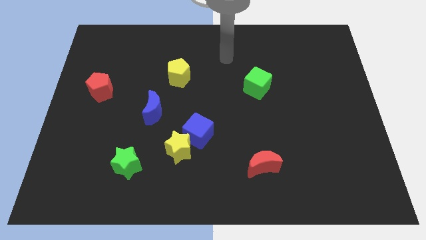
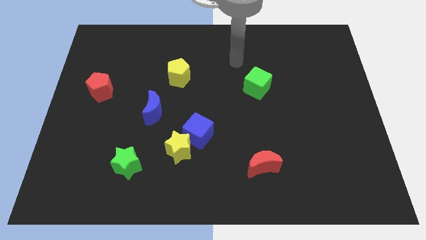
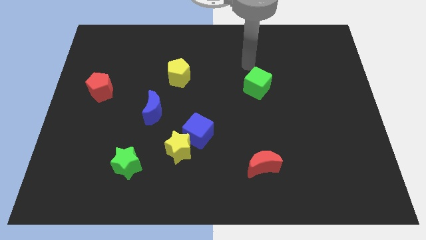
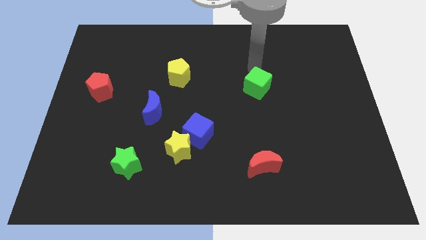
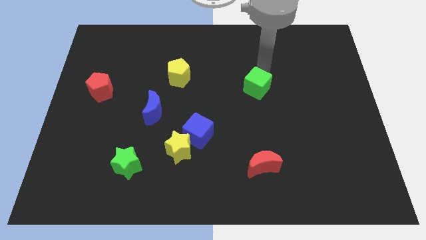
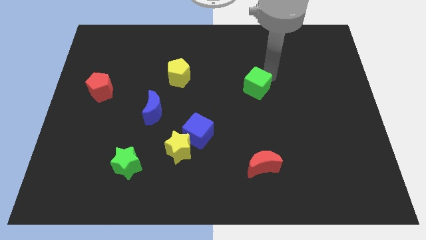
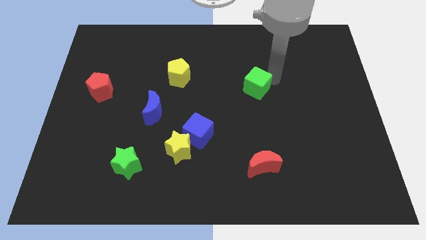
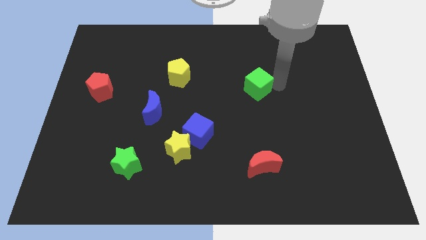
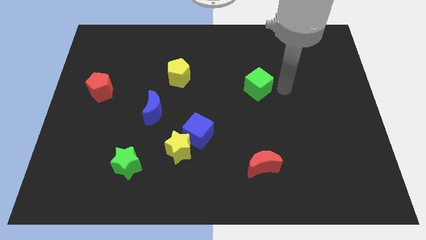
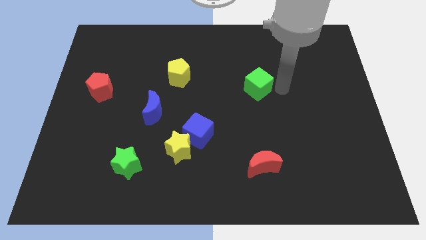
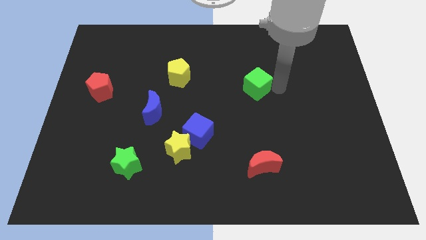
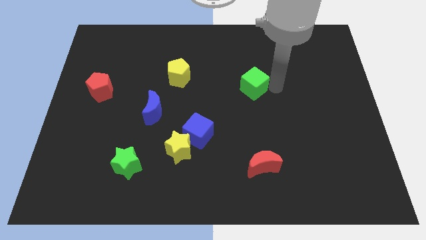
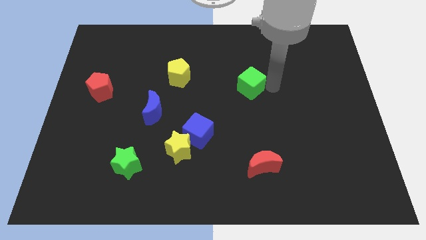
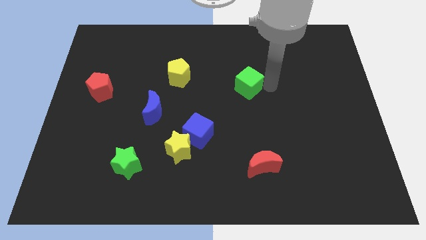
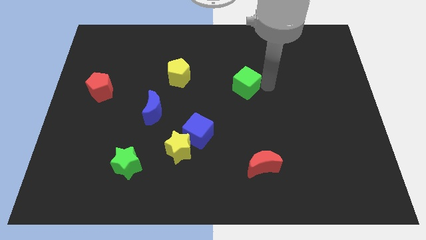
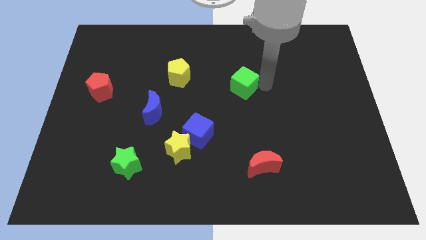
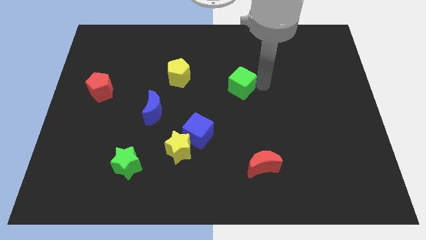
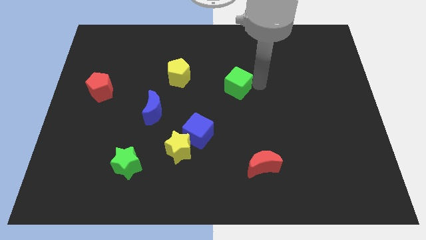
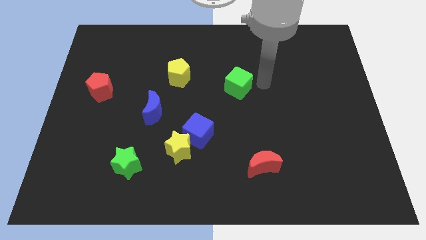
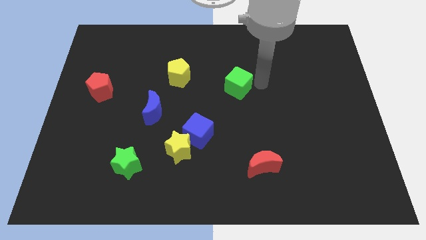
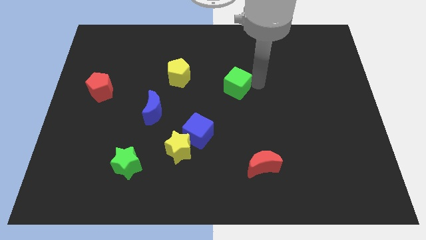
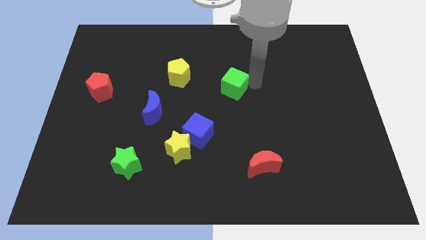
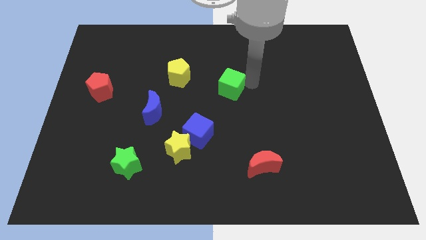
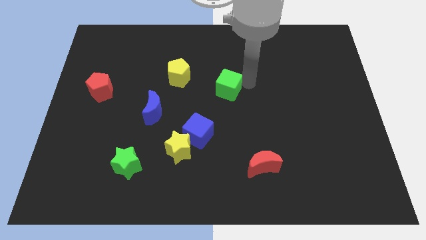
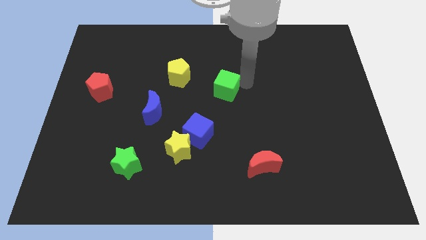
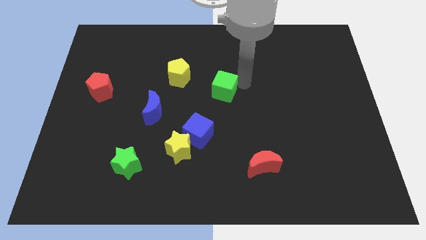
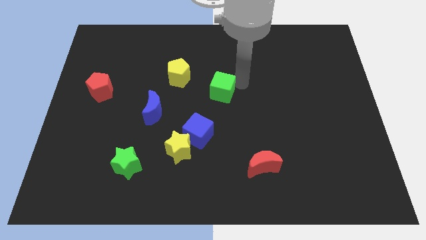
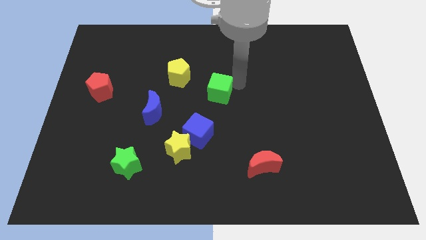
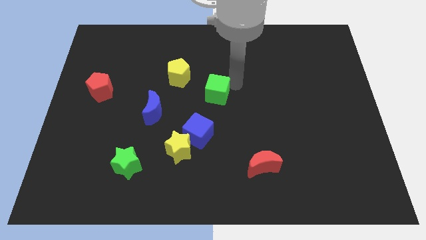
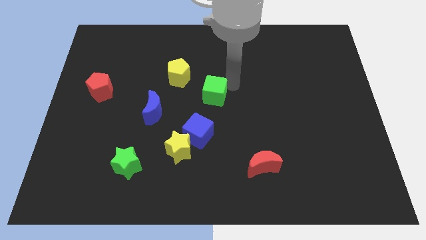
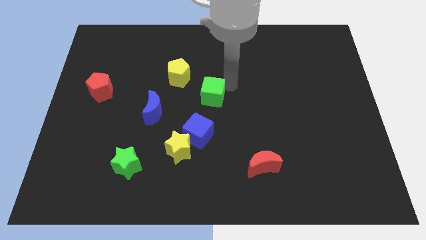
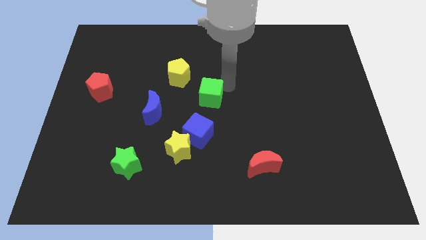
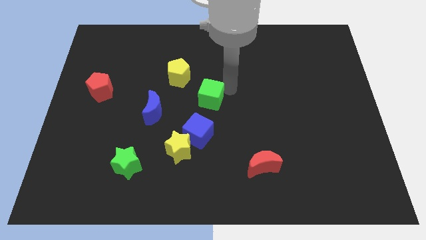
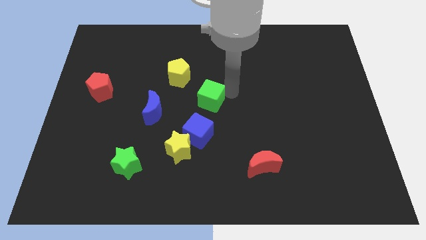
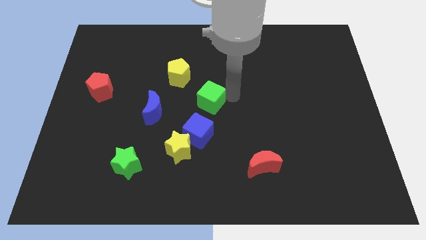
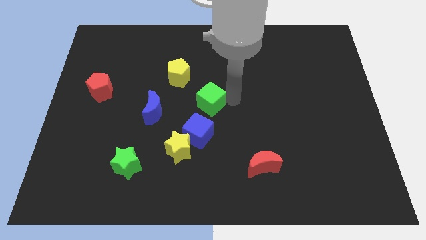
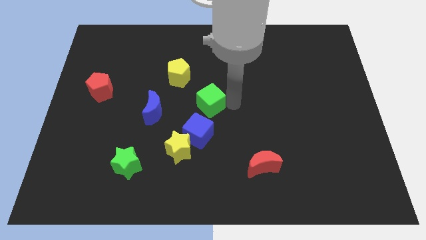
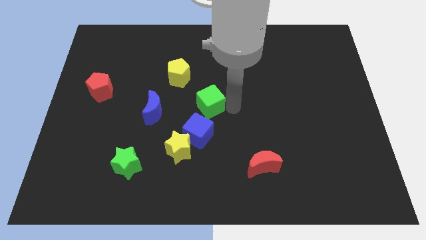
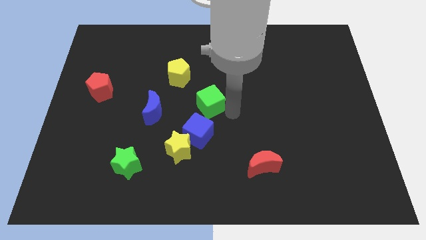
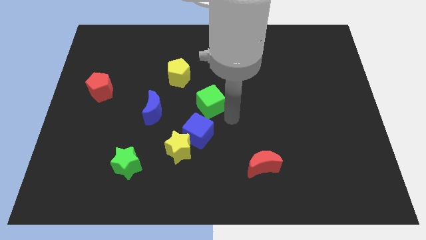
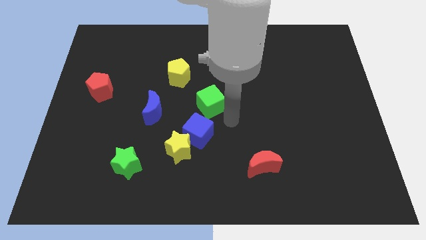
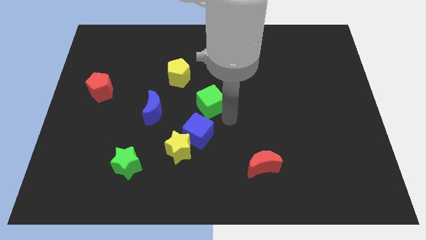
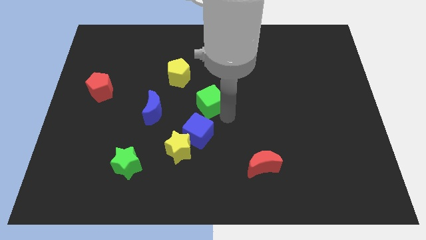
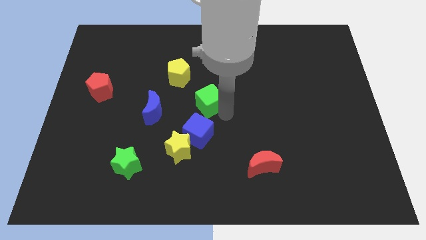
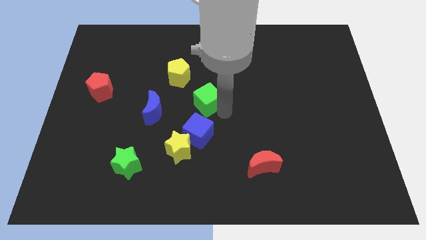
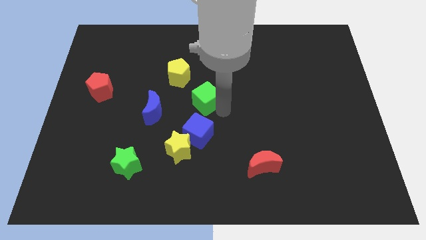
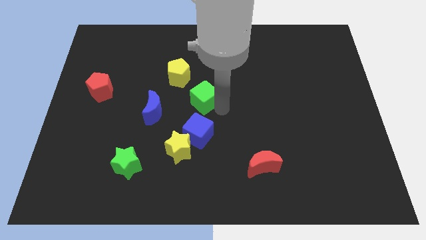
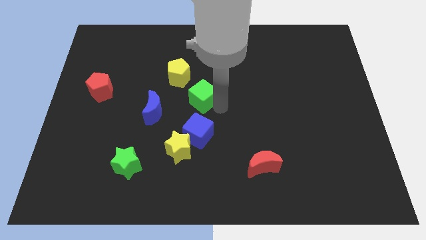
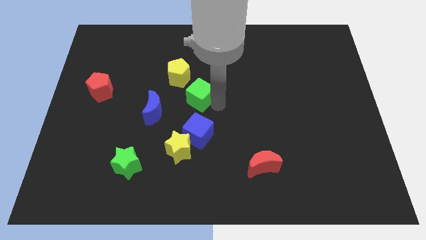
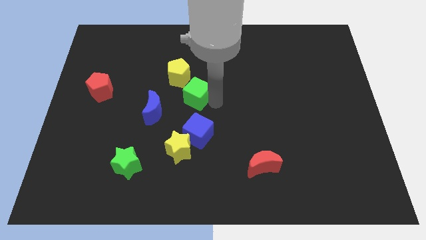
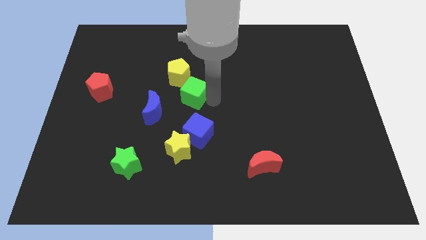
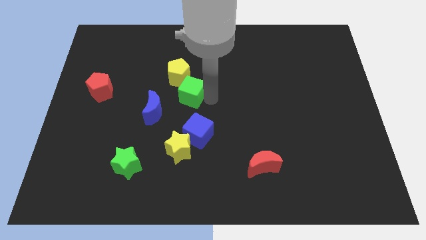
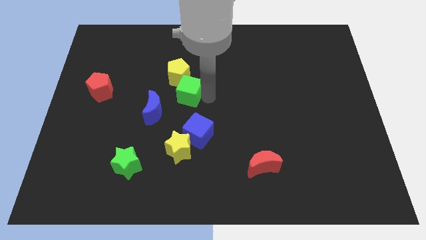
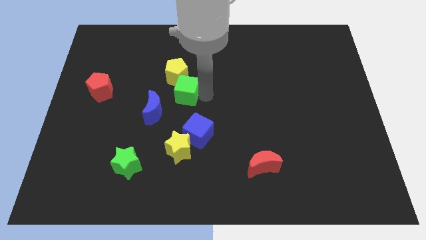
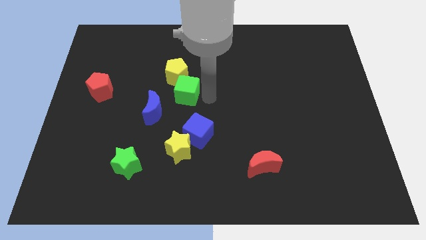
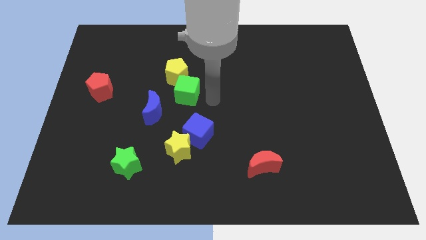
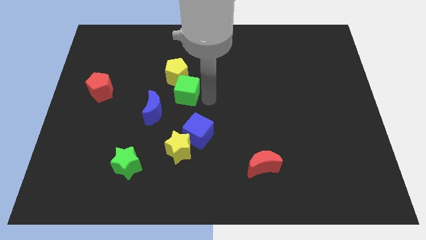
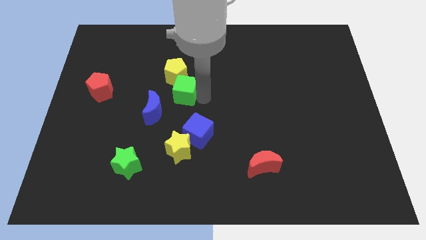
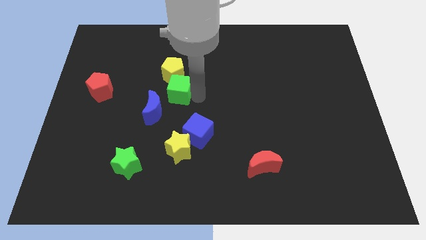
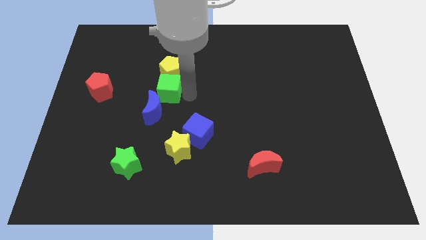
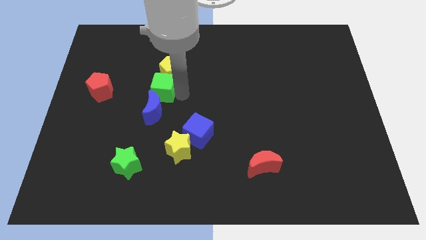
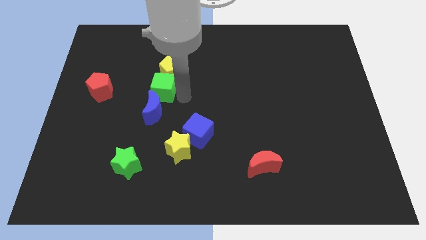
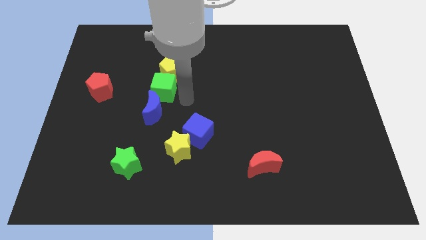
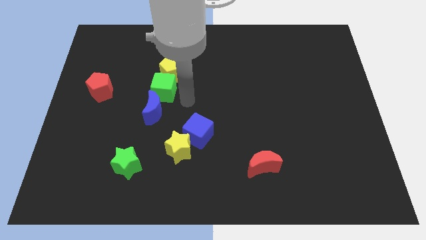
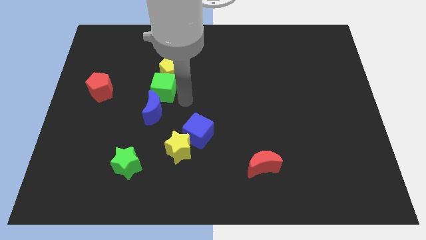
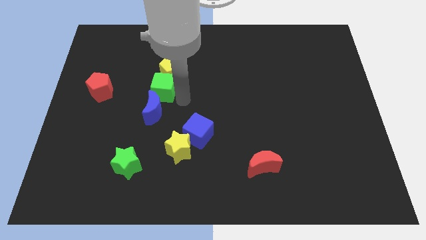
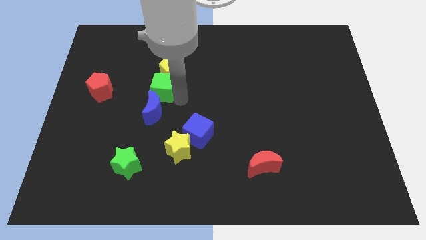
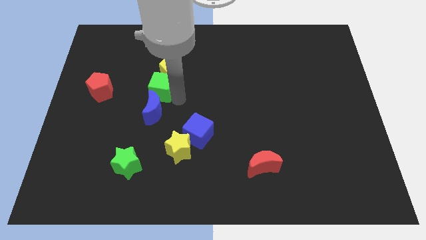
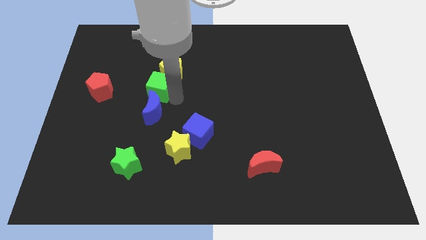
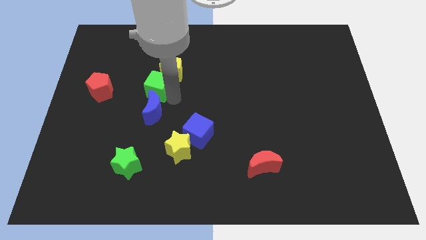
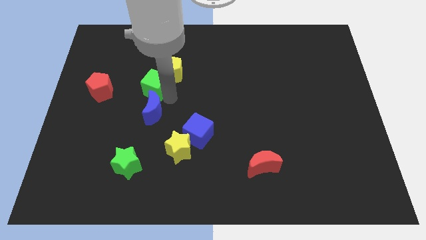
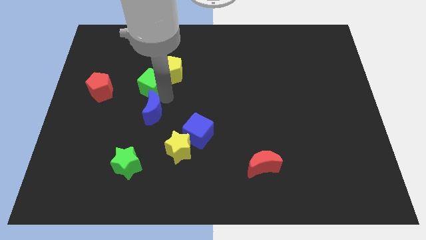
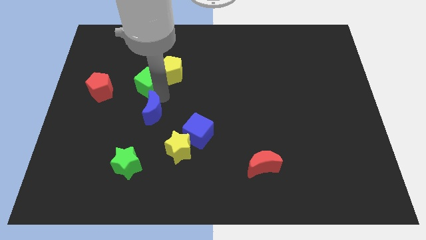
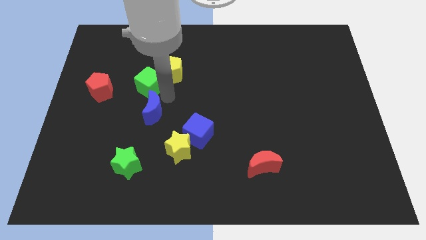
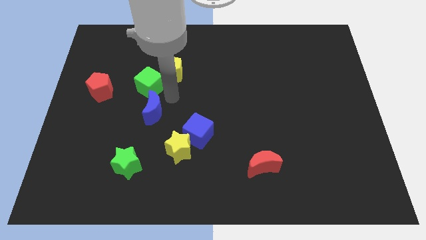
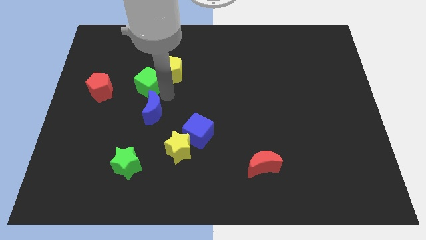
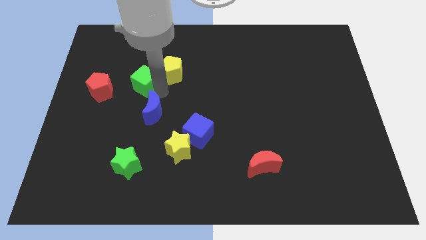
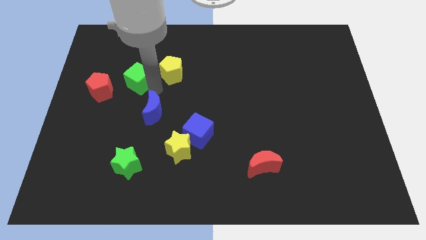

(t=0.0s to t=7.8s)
slide the green cube diagonally up and to the right of the red pentagon
